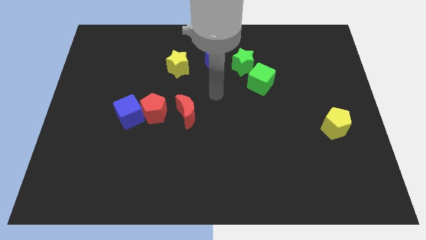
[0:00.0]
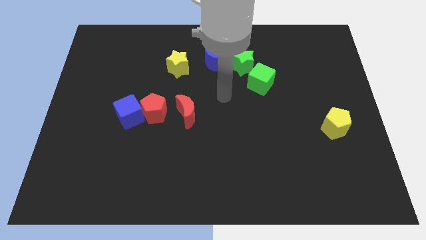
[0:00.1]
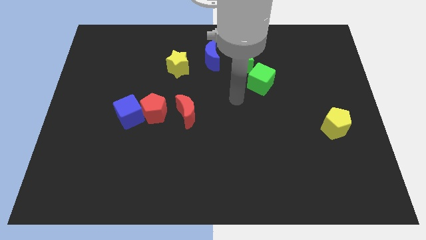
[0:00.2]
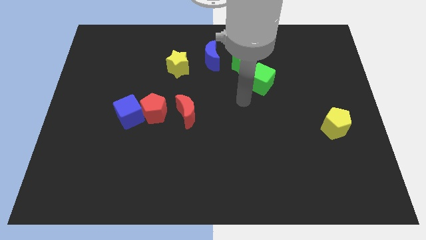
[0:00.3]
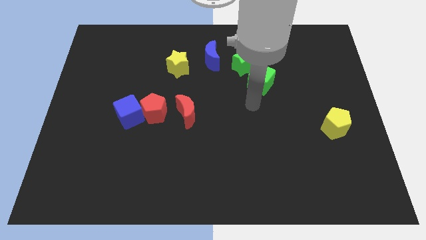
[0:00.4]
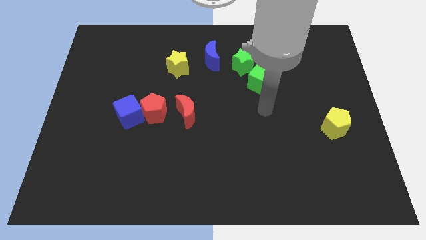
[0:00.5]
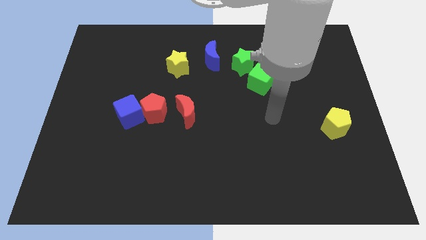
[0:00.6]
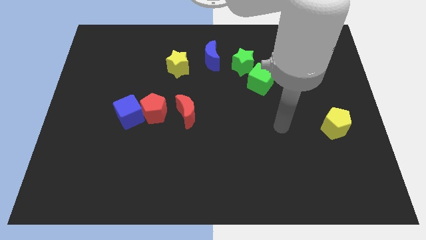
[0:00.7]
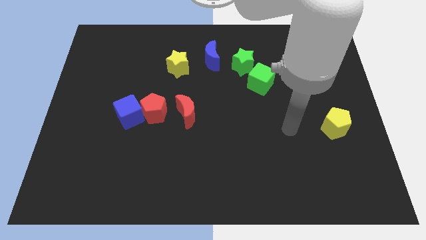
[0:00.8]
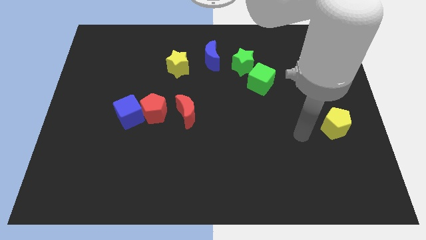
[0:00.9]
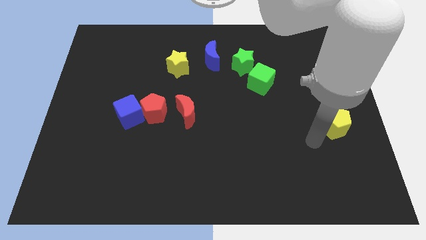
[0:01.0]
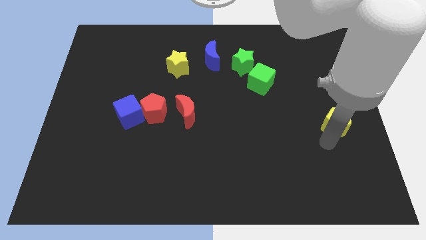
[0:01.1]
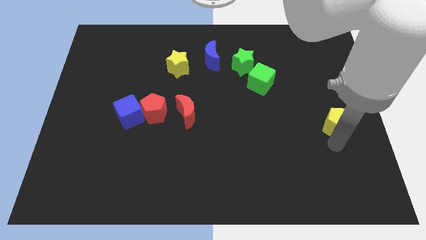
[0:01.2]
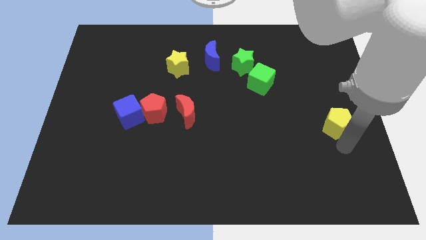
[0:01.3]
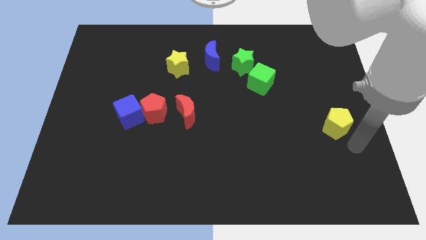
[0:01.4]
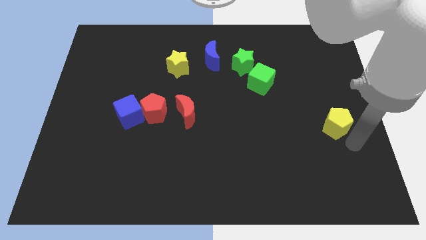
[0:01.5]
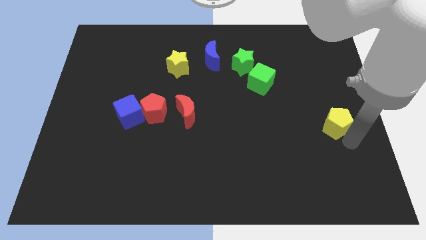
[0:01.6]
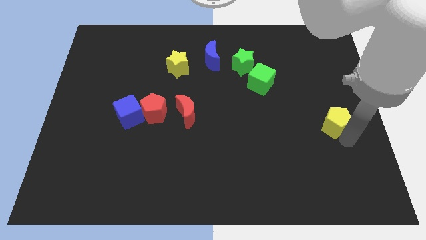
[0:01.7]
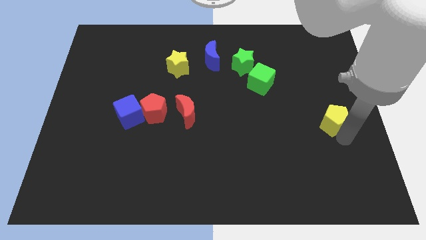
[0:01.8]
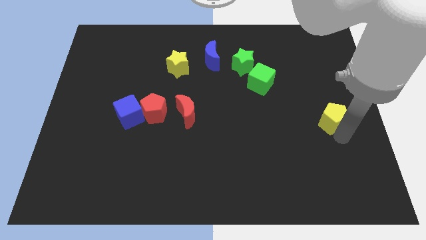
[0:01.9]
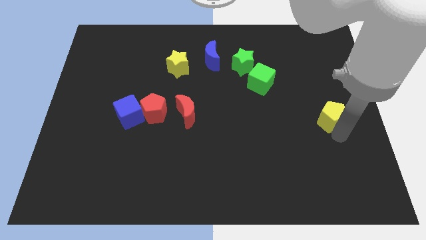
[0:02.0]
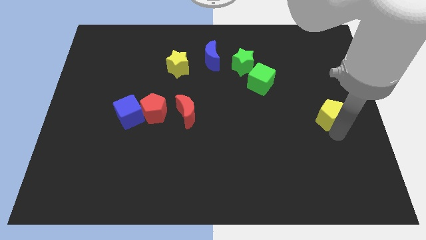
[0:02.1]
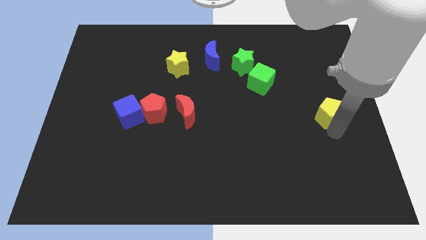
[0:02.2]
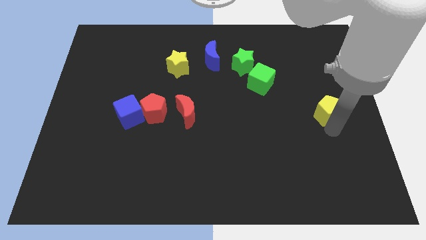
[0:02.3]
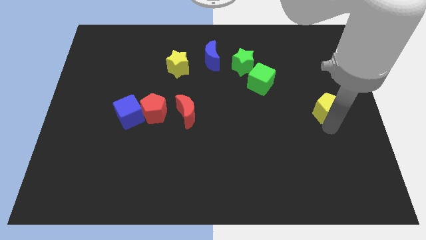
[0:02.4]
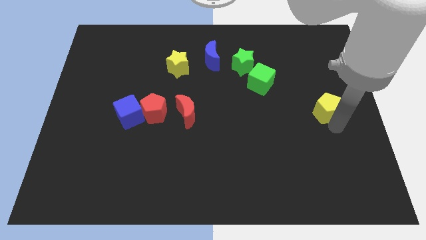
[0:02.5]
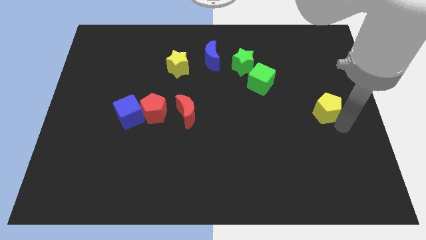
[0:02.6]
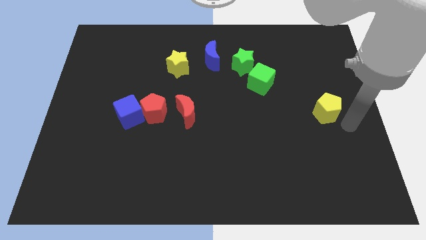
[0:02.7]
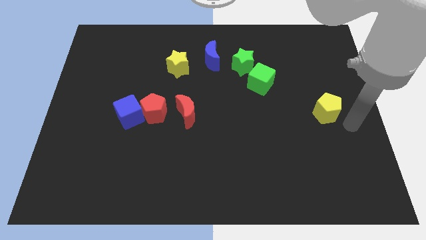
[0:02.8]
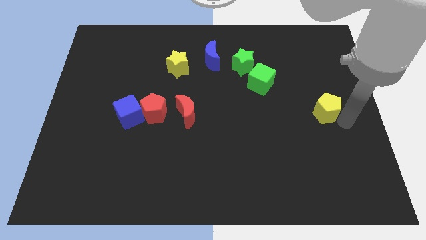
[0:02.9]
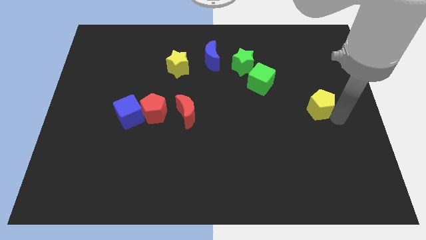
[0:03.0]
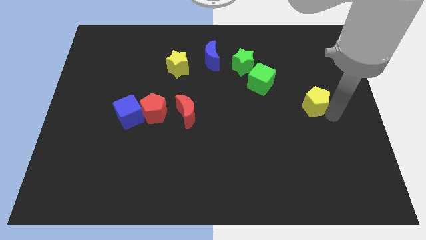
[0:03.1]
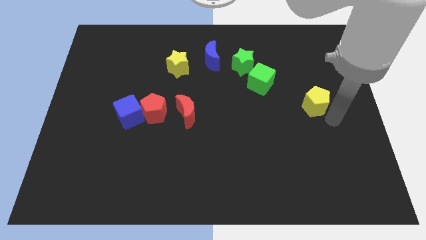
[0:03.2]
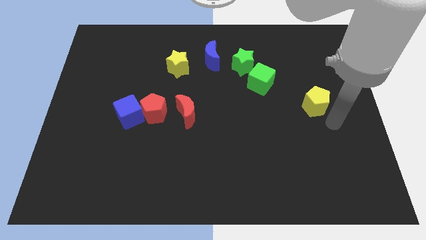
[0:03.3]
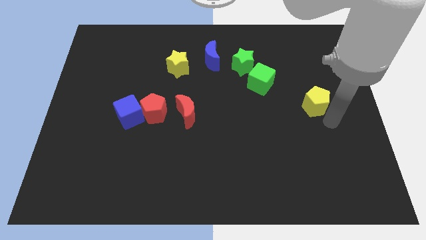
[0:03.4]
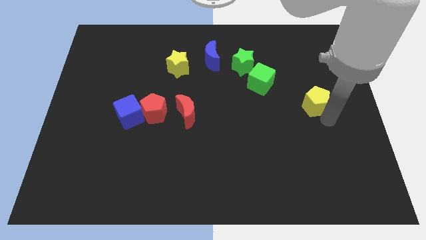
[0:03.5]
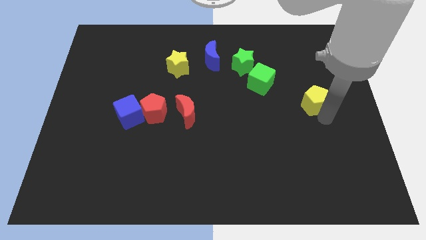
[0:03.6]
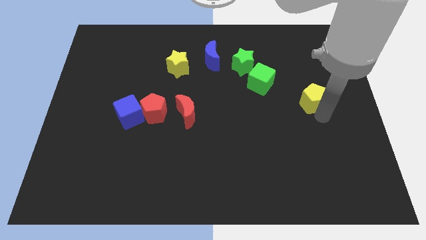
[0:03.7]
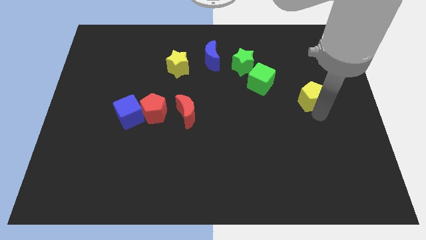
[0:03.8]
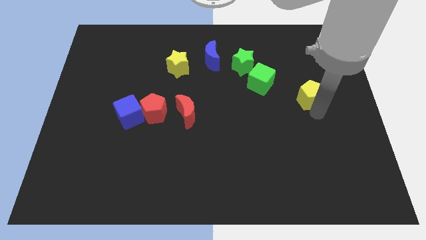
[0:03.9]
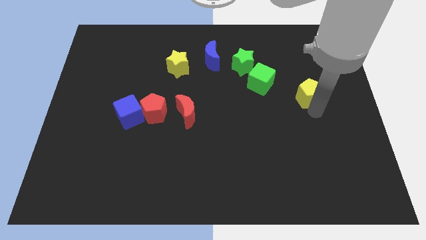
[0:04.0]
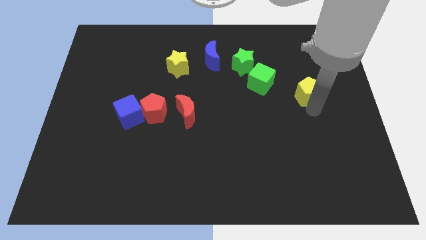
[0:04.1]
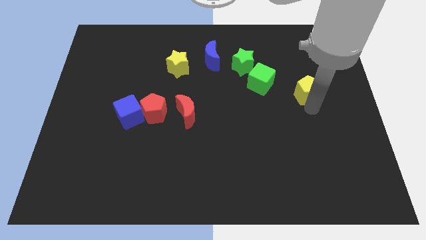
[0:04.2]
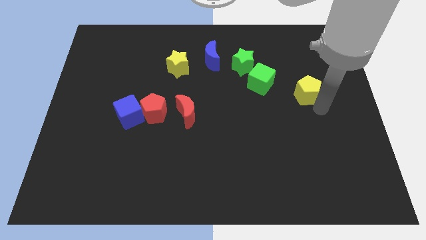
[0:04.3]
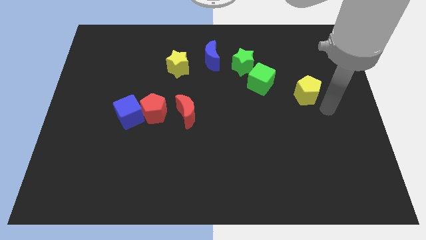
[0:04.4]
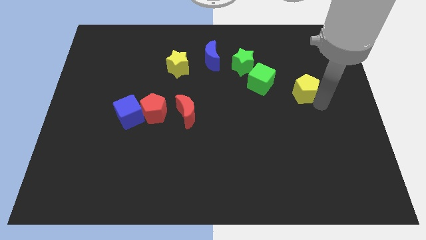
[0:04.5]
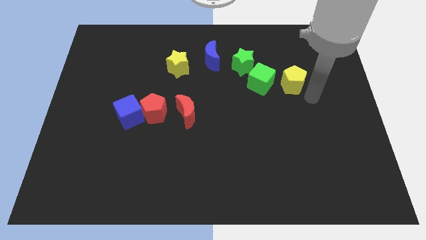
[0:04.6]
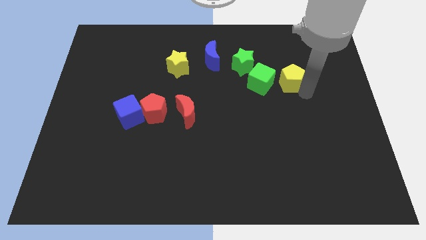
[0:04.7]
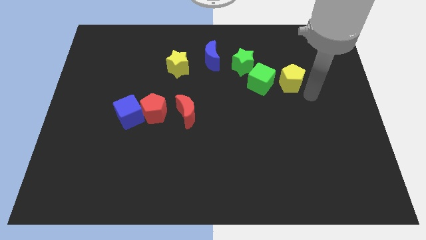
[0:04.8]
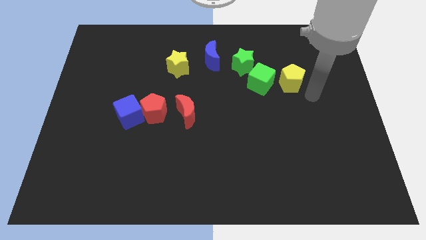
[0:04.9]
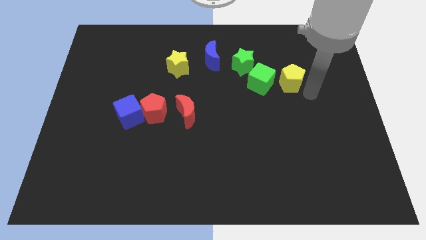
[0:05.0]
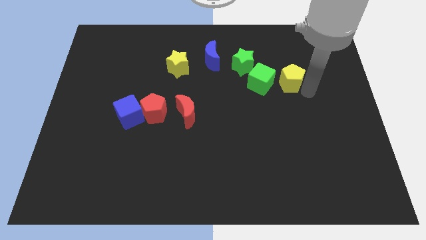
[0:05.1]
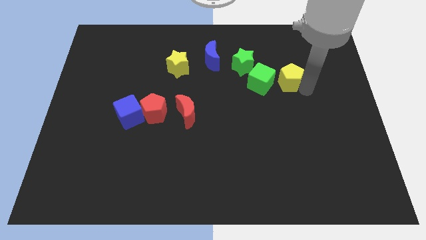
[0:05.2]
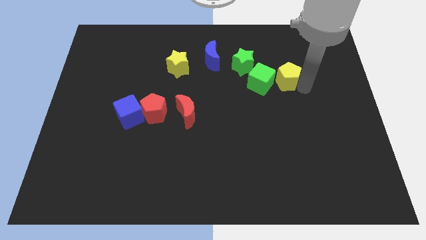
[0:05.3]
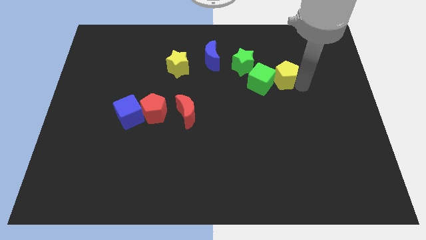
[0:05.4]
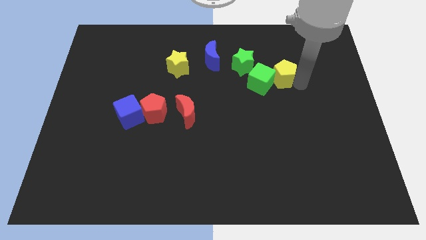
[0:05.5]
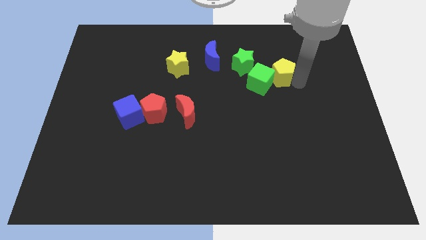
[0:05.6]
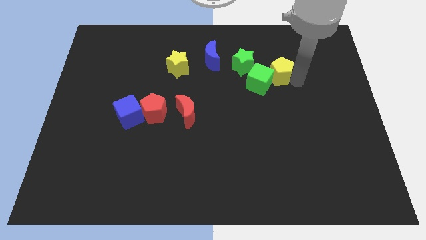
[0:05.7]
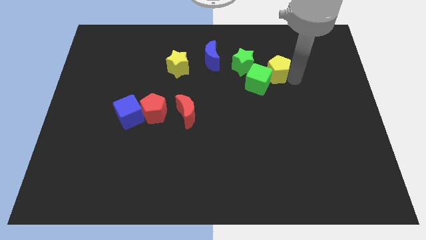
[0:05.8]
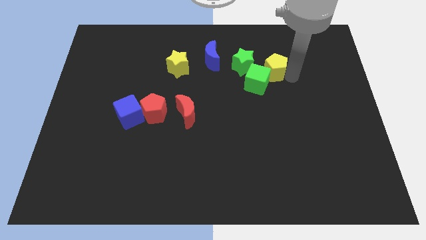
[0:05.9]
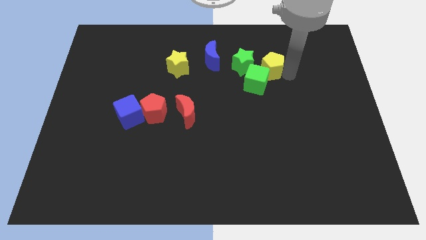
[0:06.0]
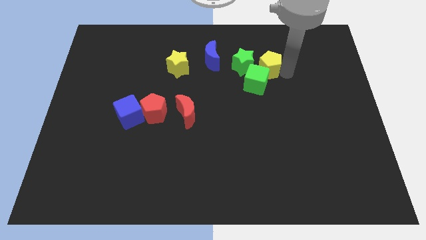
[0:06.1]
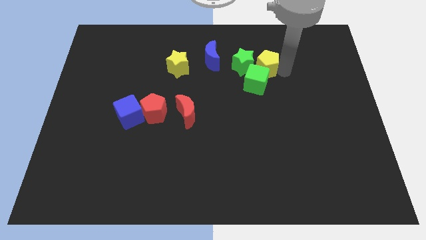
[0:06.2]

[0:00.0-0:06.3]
push the yellow pentagon to the green star
